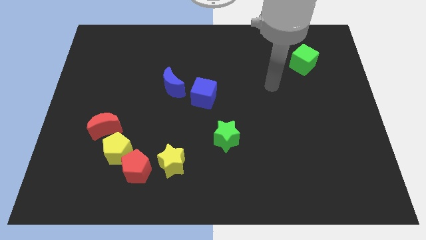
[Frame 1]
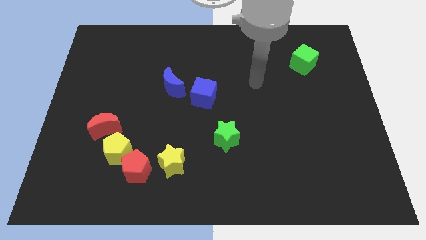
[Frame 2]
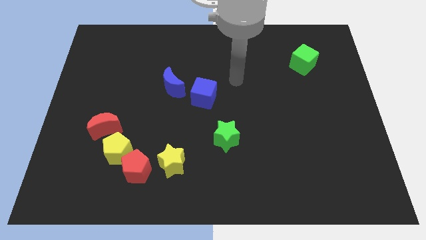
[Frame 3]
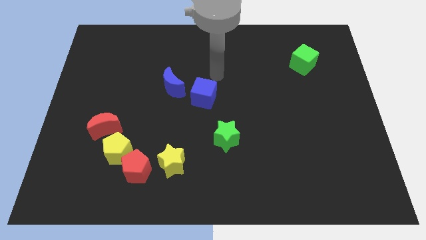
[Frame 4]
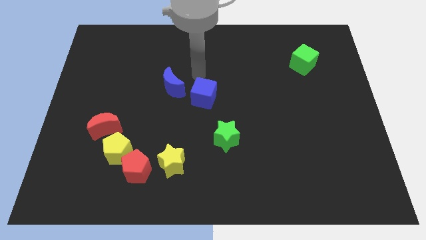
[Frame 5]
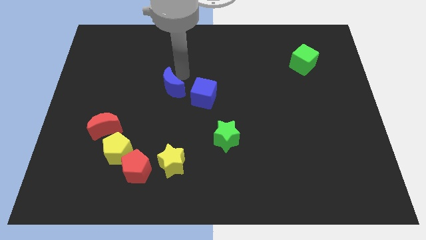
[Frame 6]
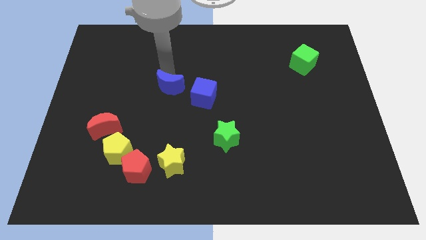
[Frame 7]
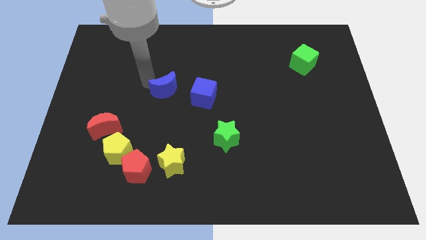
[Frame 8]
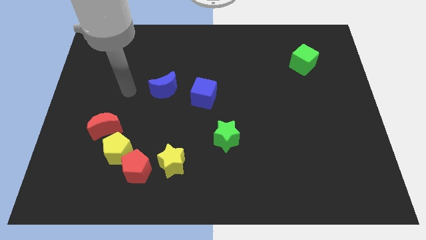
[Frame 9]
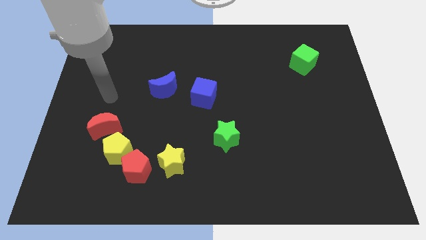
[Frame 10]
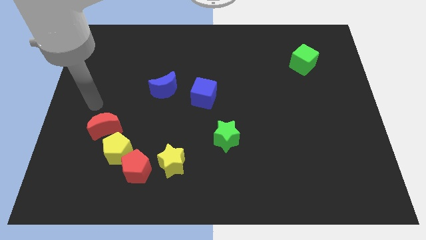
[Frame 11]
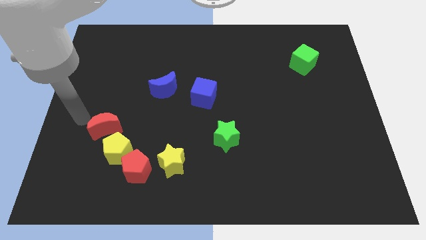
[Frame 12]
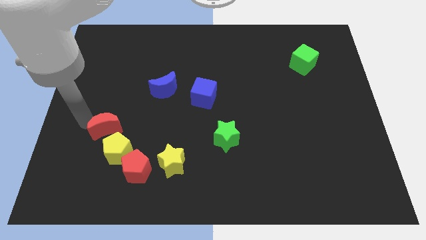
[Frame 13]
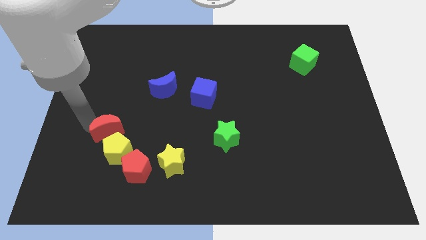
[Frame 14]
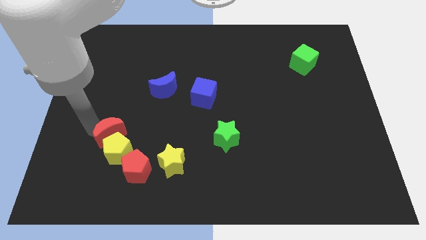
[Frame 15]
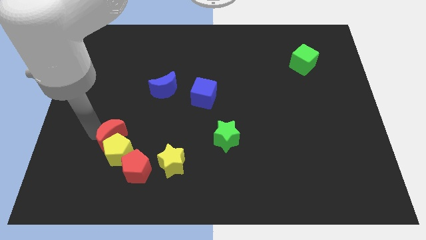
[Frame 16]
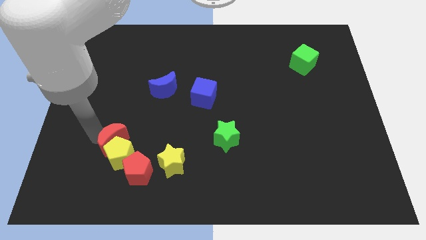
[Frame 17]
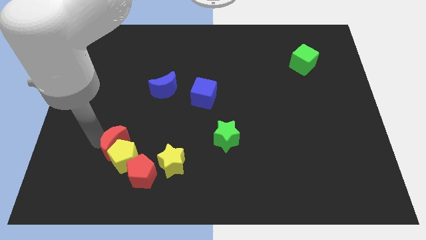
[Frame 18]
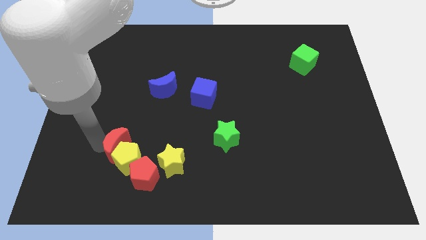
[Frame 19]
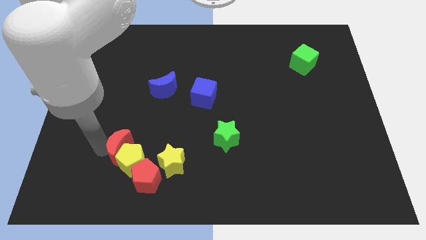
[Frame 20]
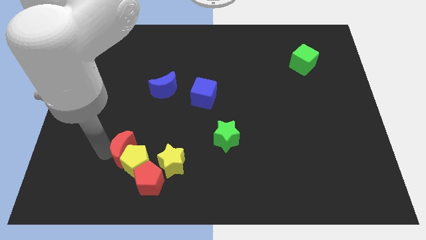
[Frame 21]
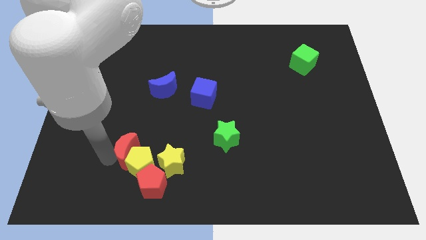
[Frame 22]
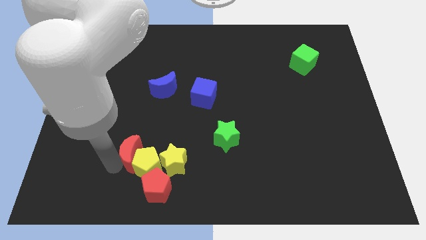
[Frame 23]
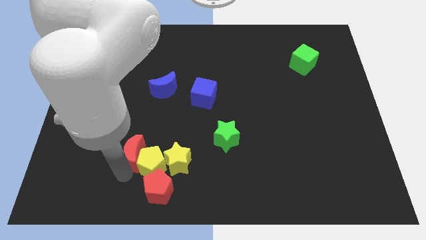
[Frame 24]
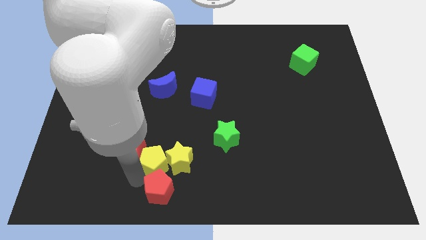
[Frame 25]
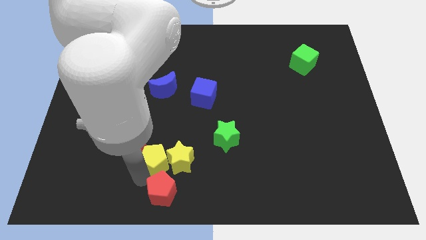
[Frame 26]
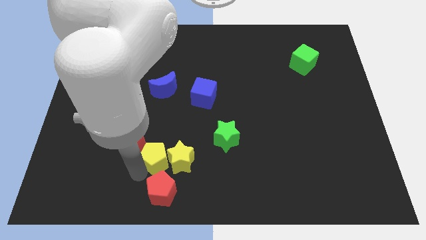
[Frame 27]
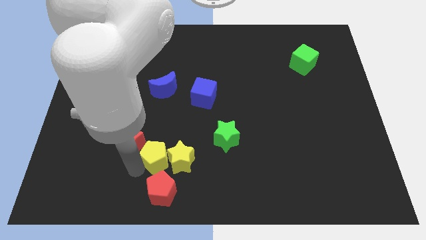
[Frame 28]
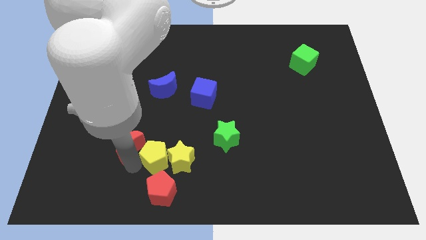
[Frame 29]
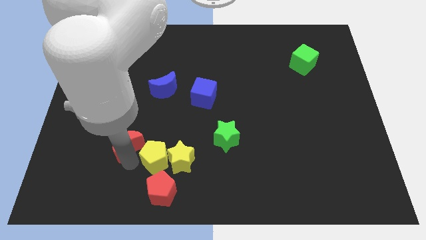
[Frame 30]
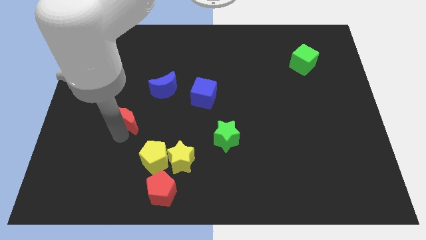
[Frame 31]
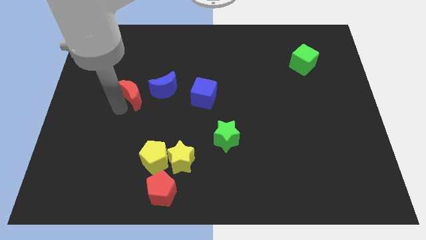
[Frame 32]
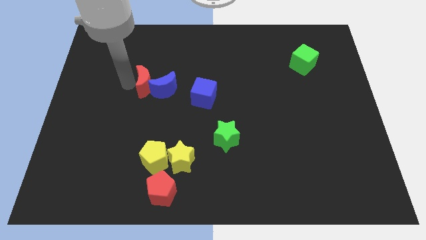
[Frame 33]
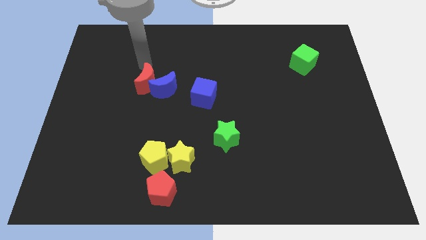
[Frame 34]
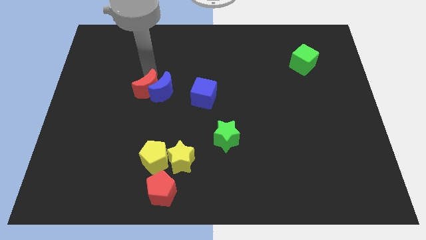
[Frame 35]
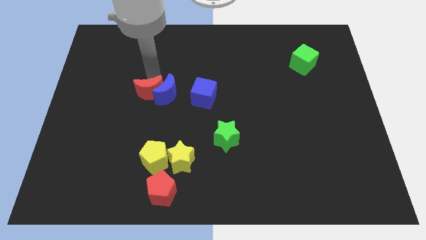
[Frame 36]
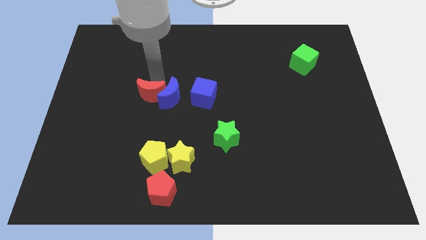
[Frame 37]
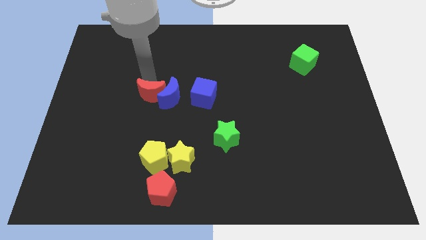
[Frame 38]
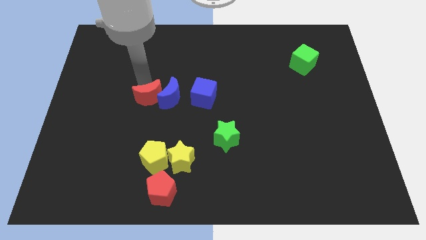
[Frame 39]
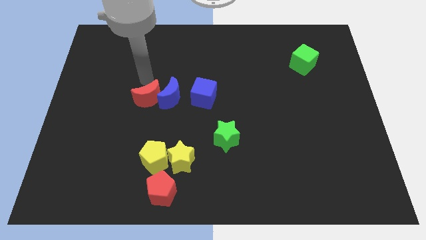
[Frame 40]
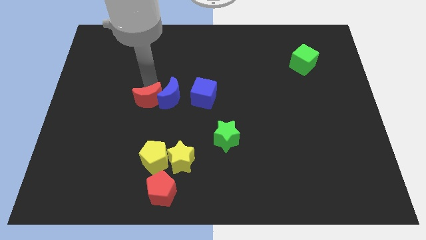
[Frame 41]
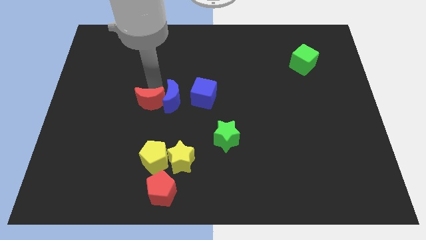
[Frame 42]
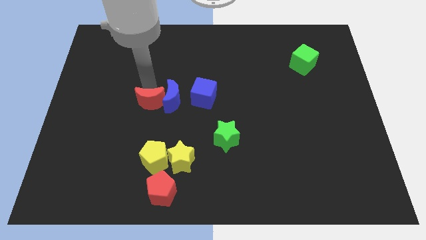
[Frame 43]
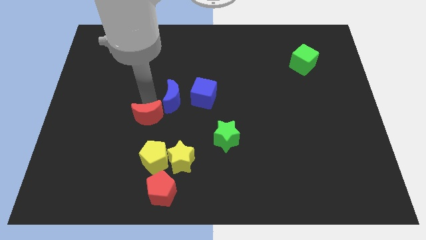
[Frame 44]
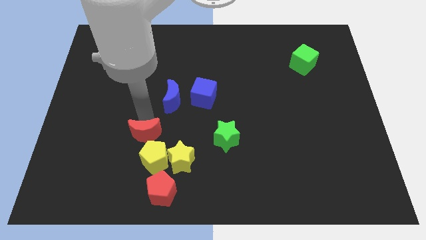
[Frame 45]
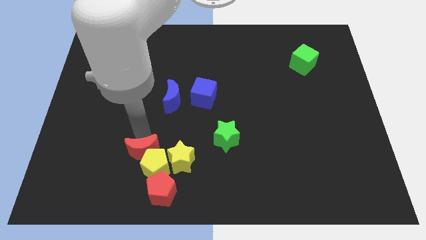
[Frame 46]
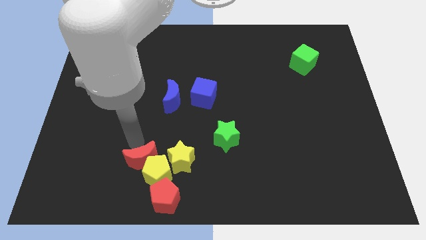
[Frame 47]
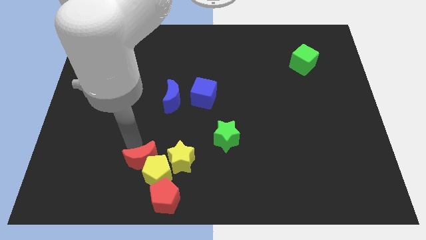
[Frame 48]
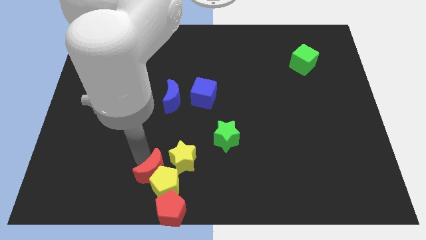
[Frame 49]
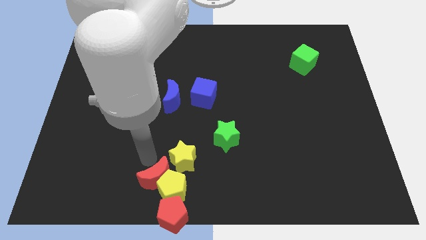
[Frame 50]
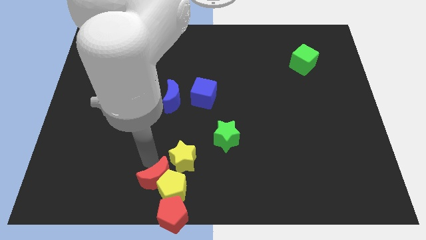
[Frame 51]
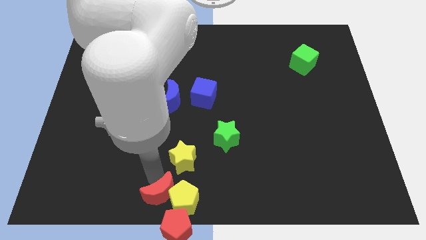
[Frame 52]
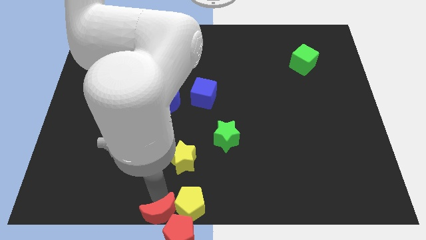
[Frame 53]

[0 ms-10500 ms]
push the red moon close to the red pentagon

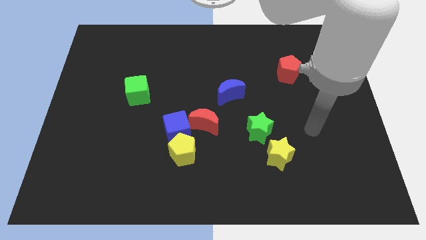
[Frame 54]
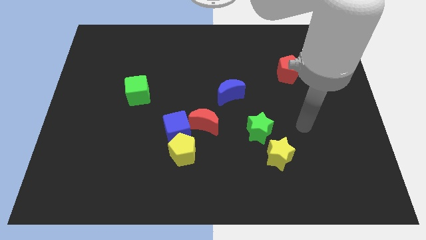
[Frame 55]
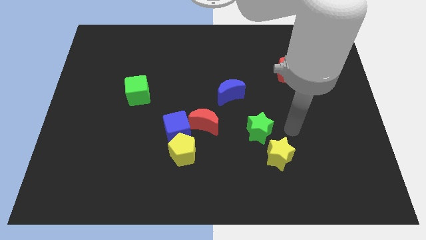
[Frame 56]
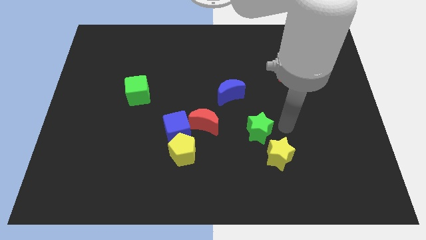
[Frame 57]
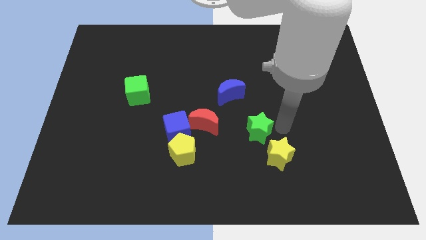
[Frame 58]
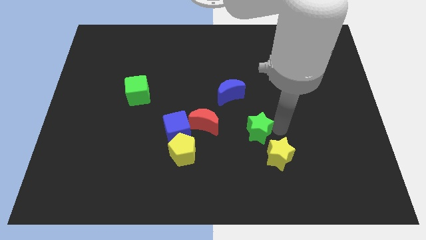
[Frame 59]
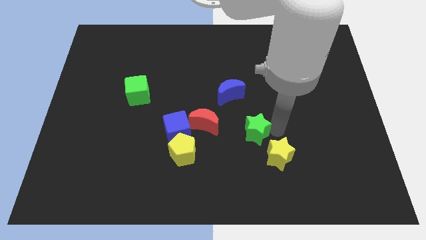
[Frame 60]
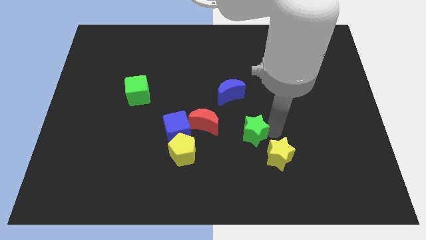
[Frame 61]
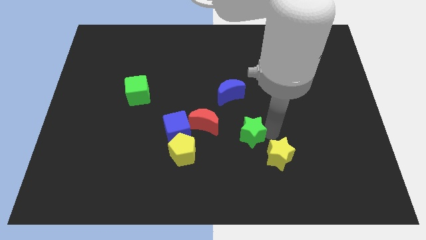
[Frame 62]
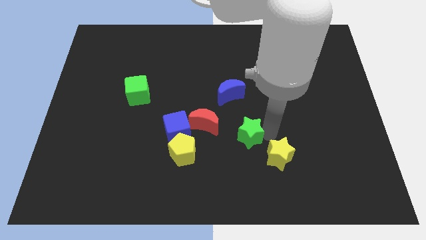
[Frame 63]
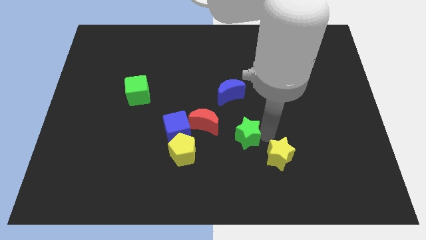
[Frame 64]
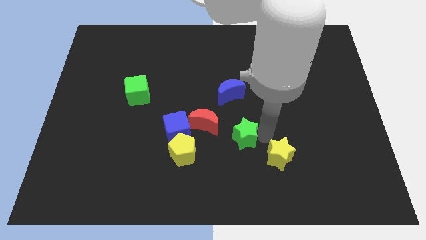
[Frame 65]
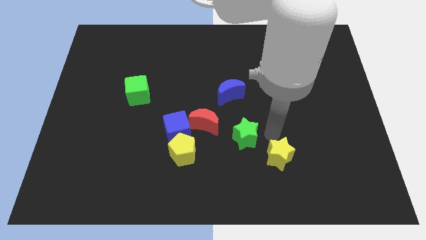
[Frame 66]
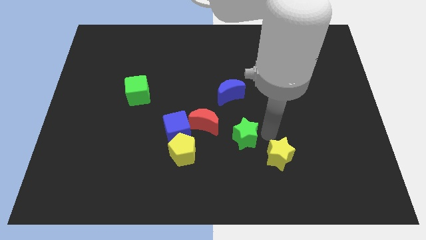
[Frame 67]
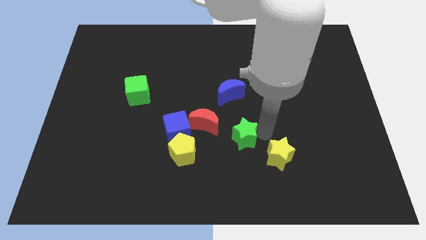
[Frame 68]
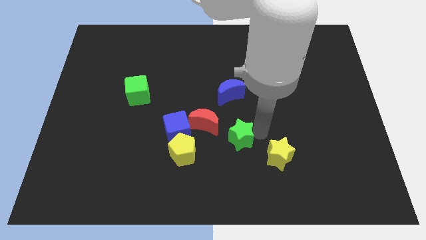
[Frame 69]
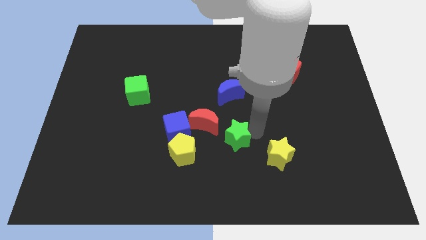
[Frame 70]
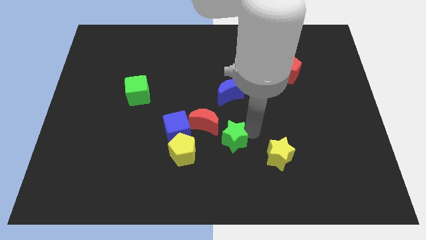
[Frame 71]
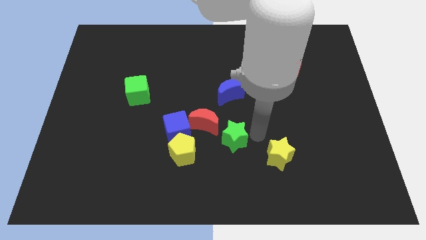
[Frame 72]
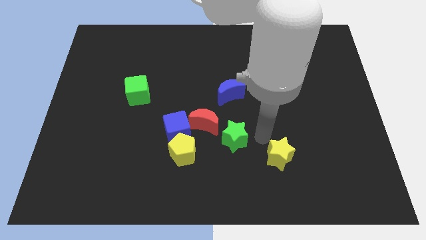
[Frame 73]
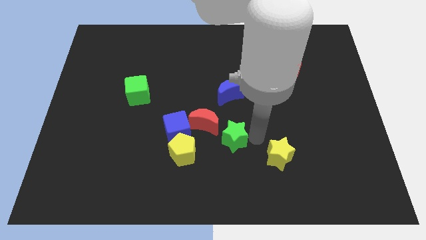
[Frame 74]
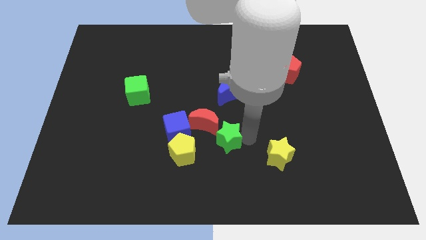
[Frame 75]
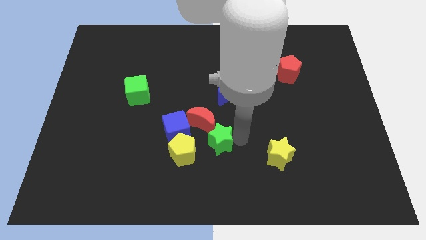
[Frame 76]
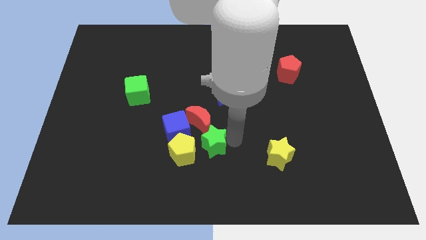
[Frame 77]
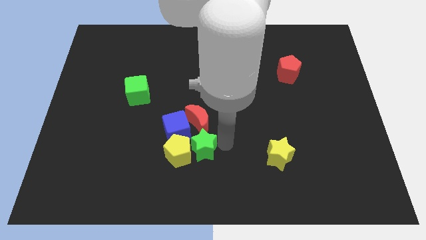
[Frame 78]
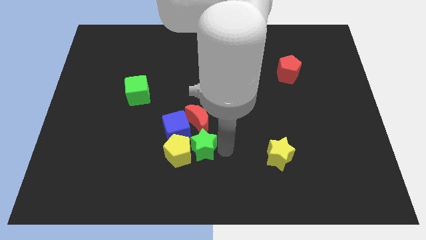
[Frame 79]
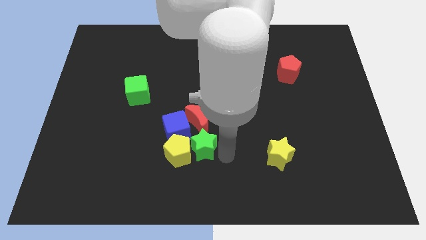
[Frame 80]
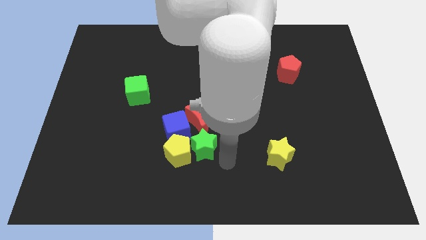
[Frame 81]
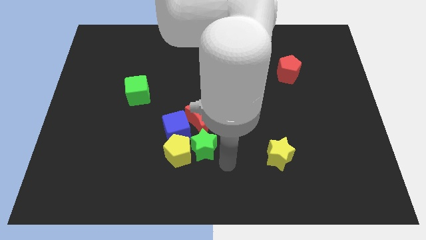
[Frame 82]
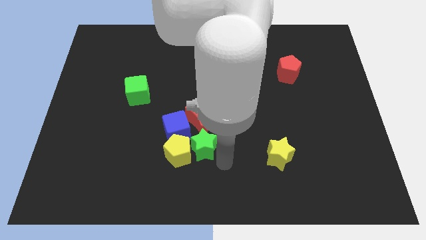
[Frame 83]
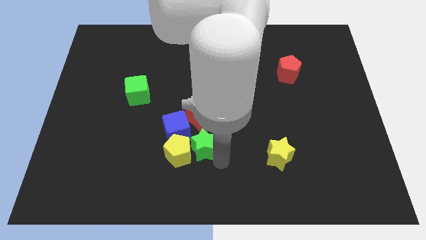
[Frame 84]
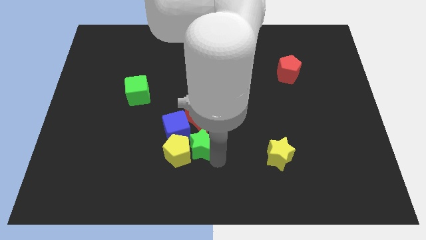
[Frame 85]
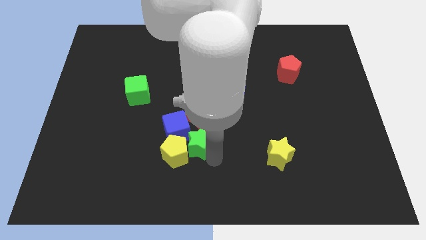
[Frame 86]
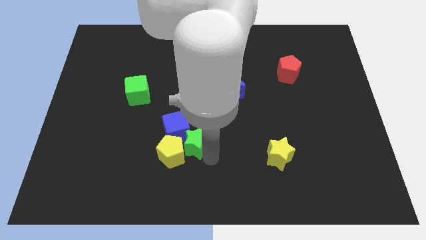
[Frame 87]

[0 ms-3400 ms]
move the green star to the blue cube
